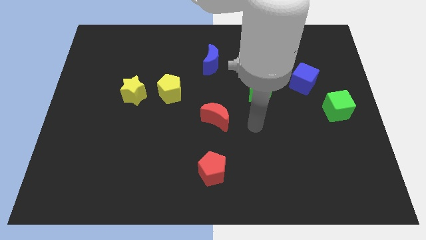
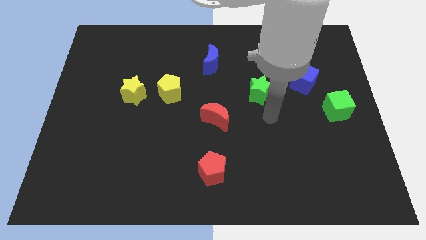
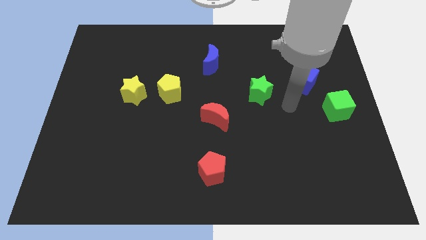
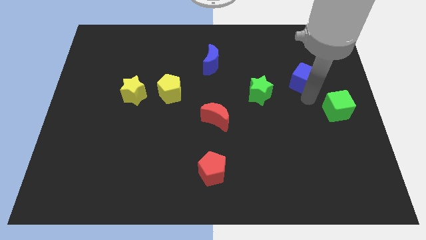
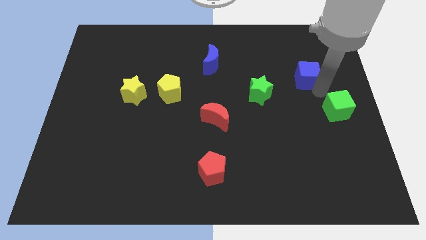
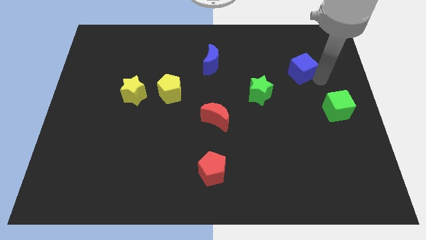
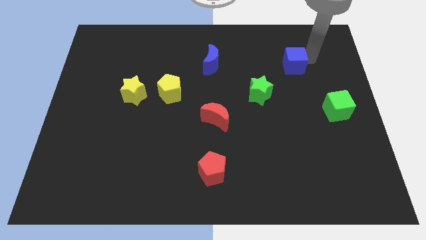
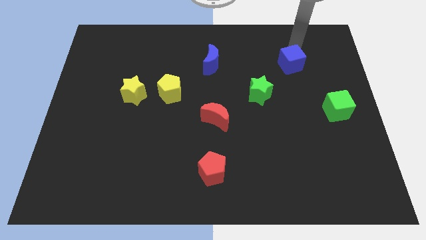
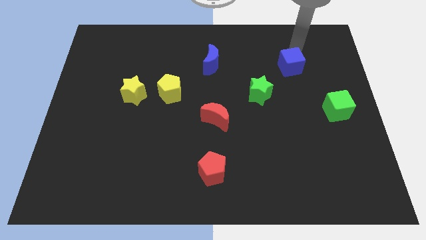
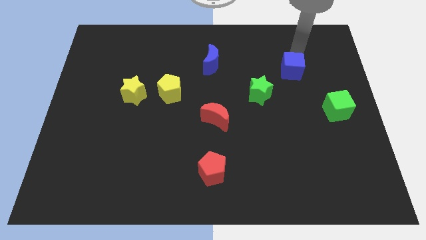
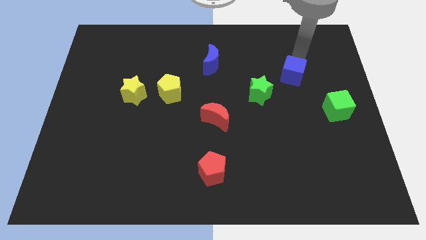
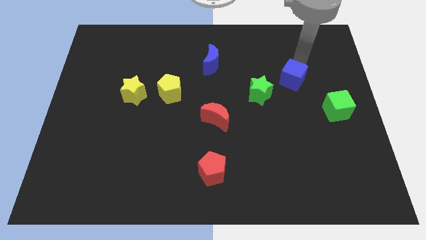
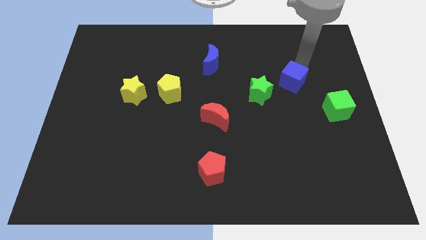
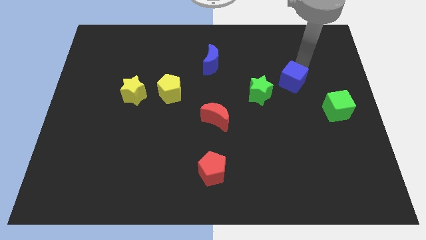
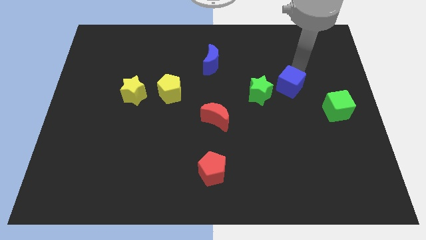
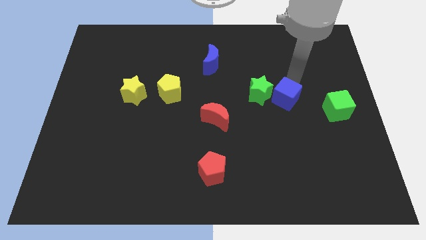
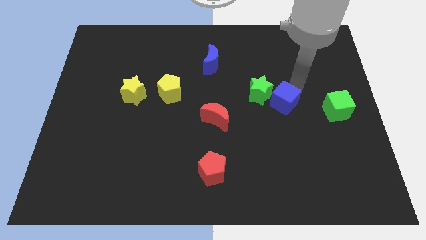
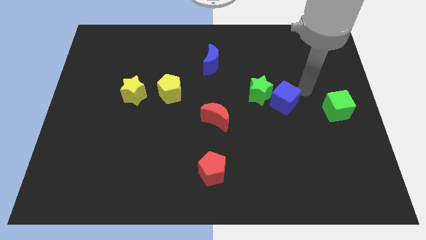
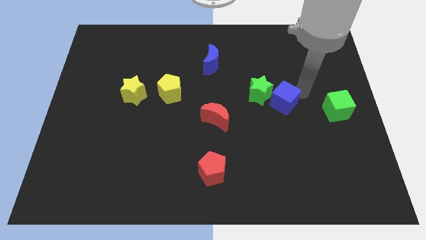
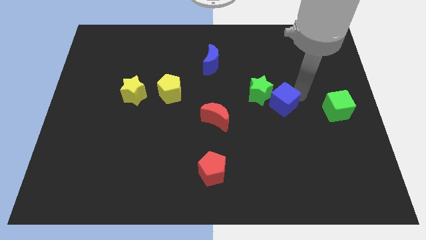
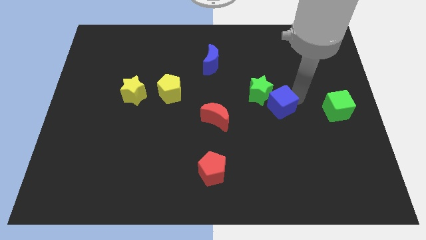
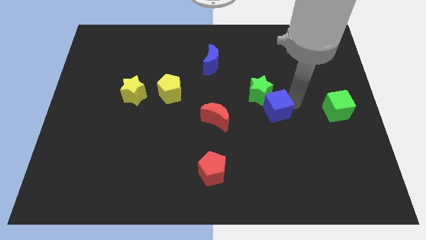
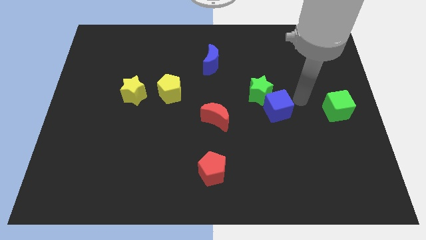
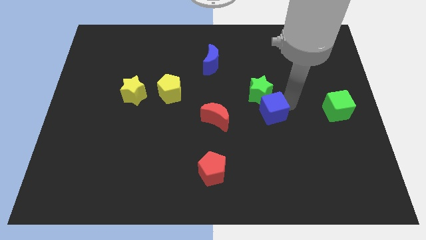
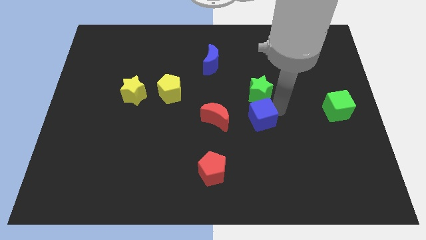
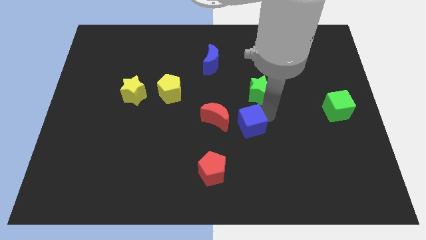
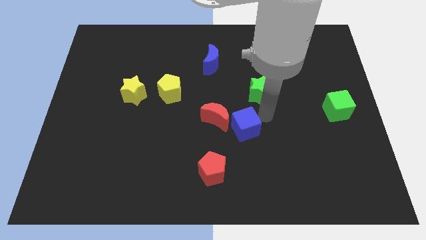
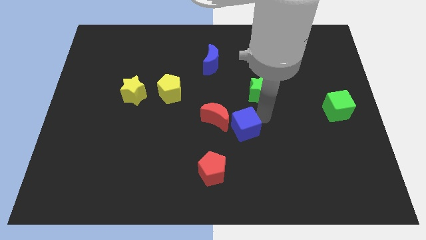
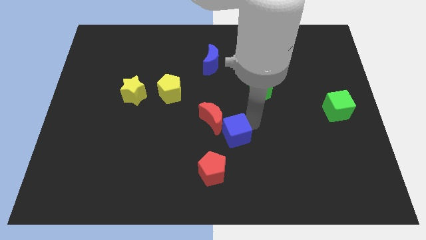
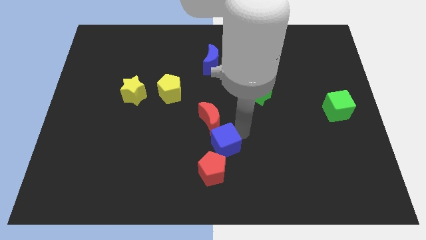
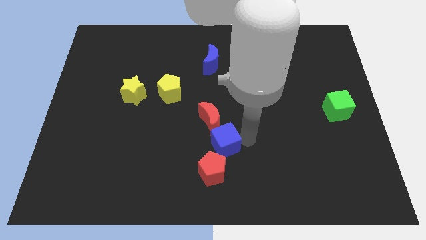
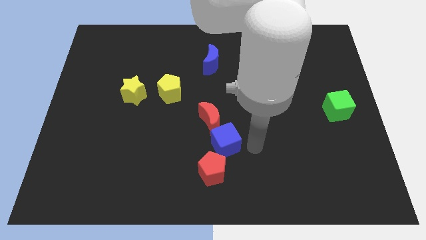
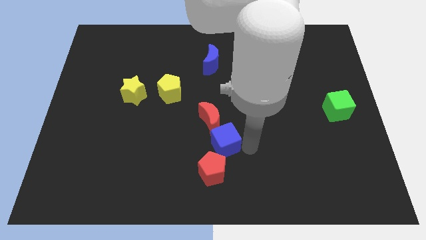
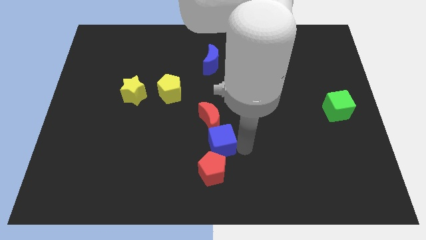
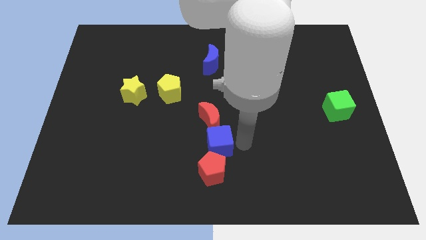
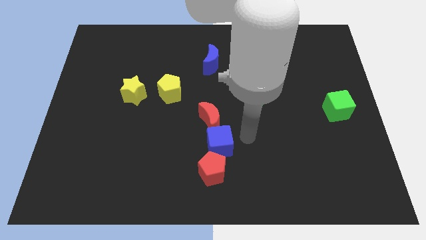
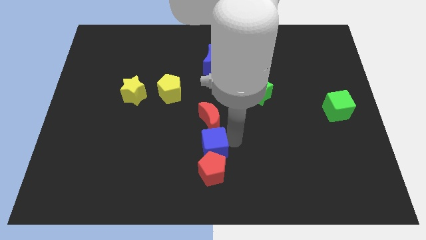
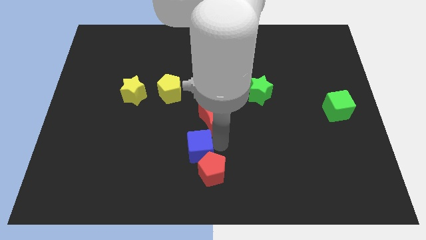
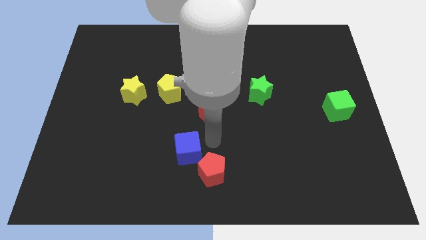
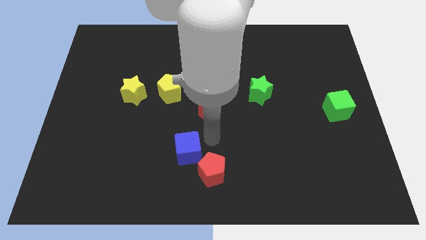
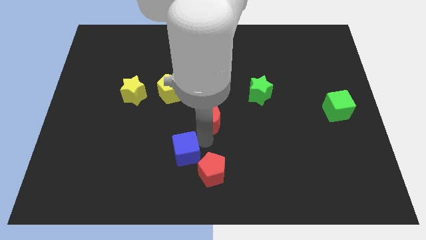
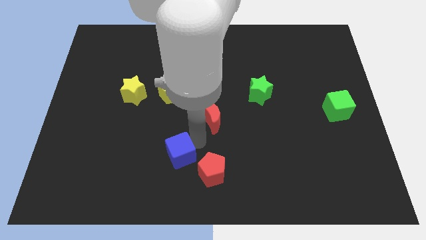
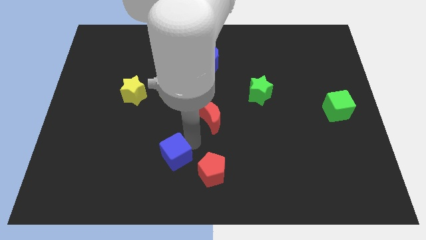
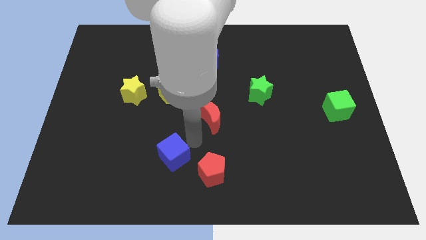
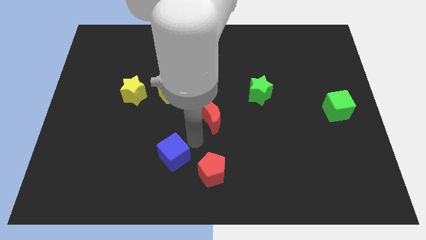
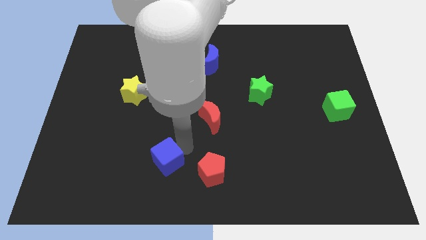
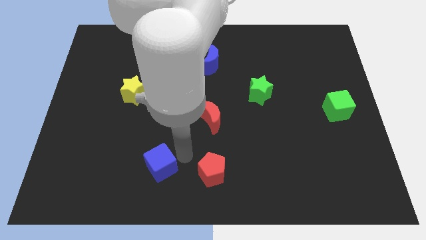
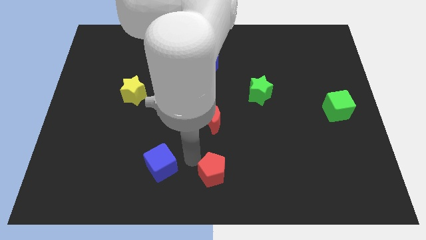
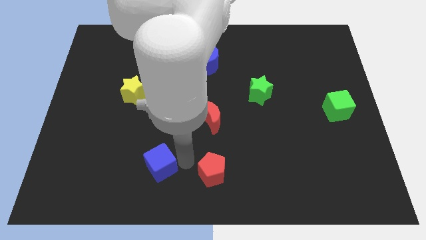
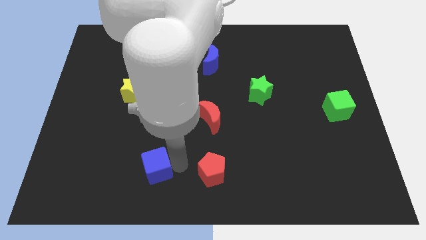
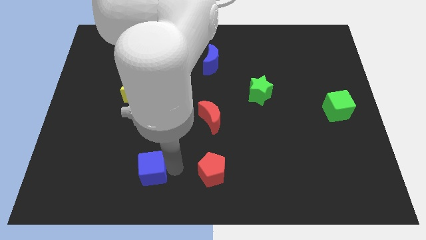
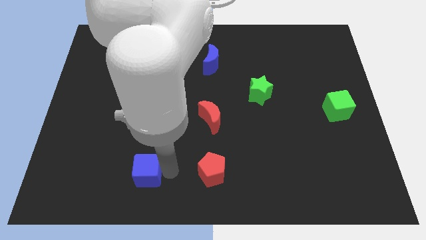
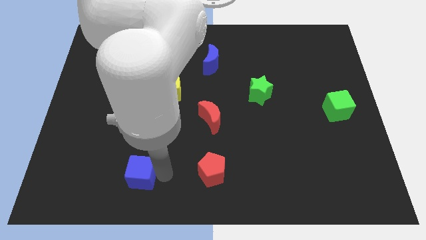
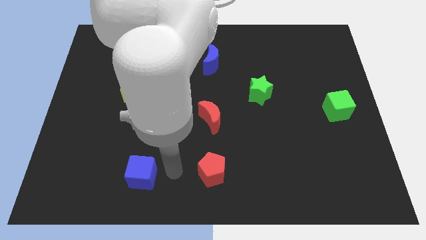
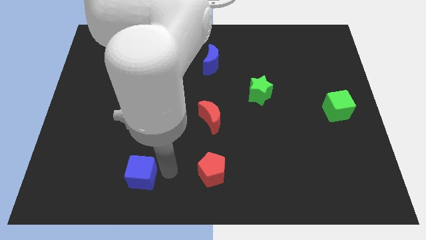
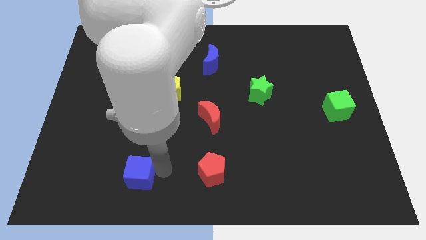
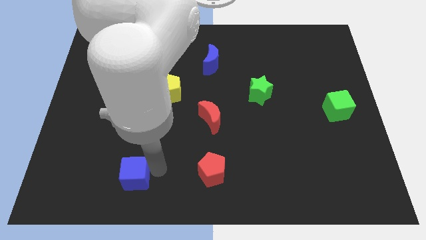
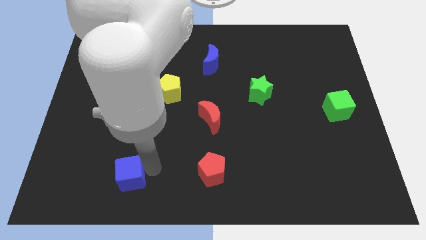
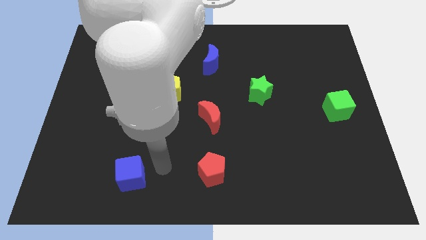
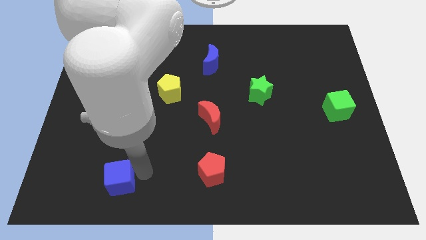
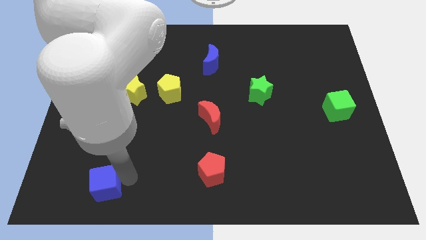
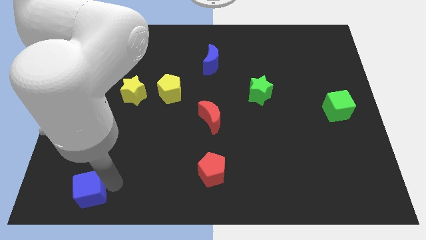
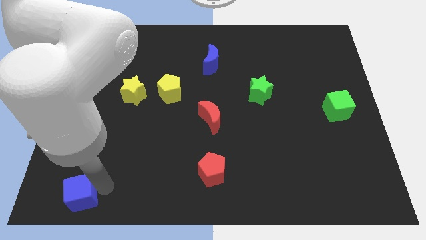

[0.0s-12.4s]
slide the blue cube to the bottom left

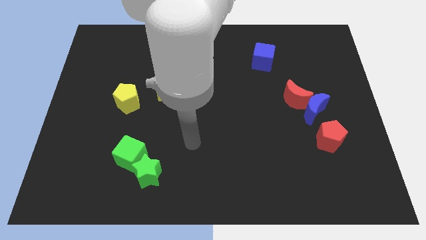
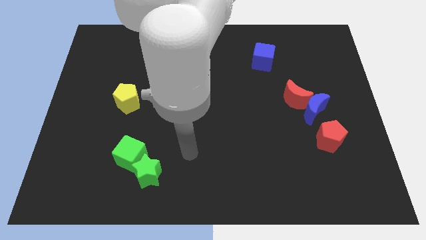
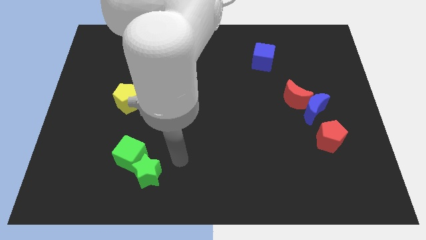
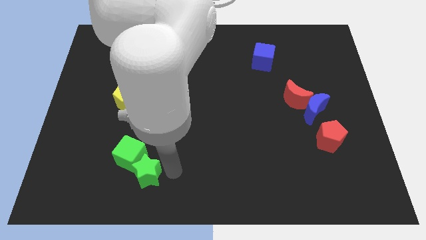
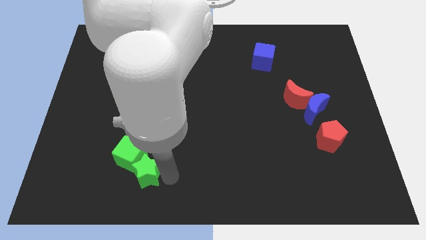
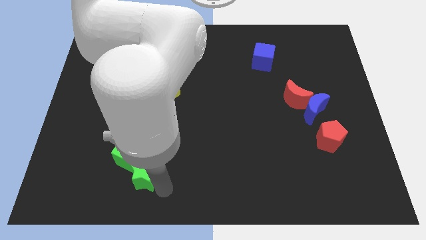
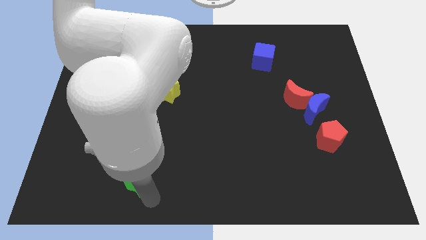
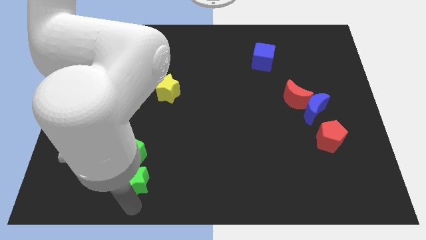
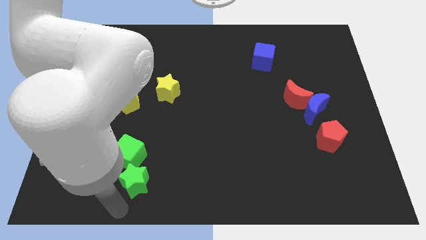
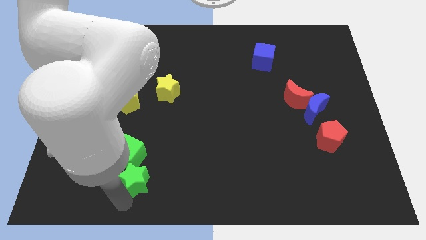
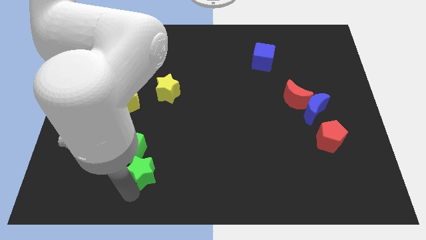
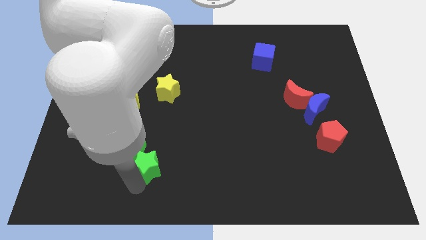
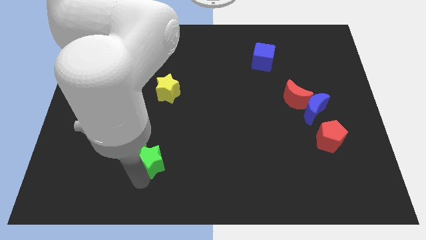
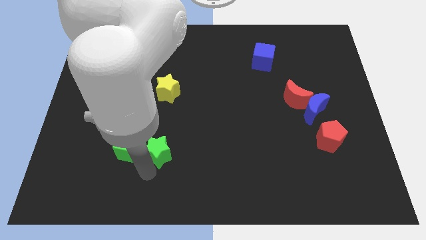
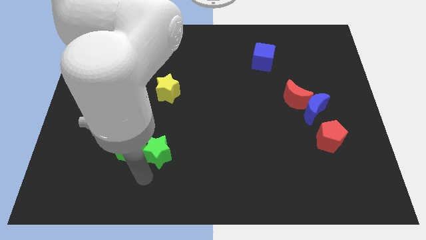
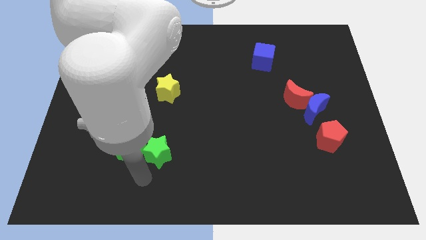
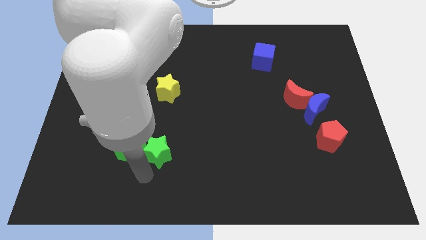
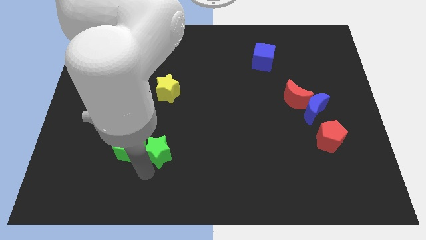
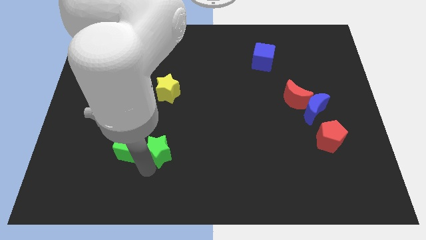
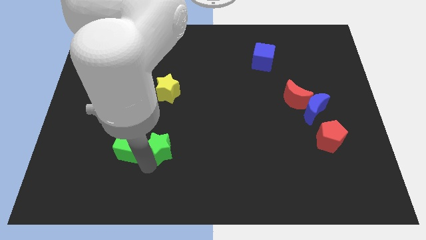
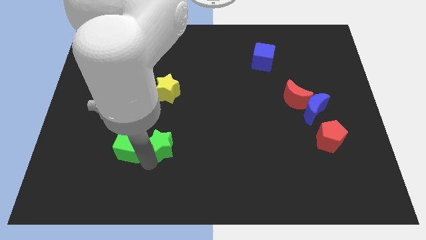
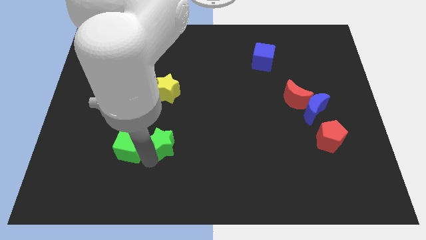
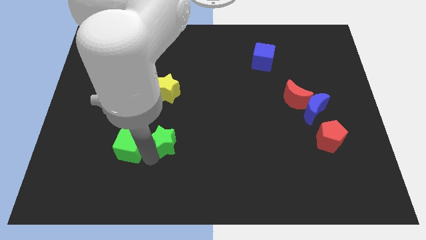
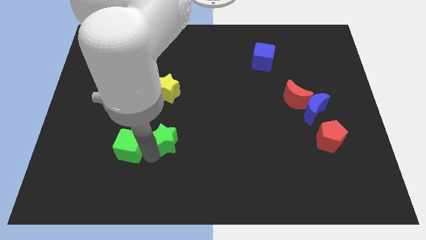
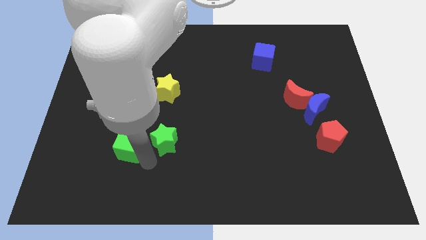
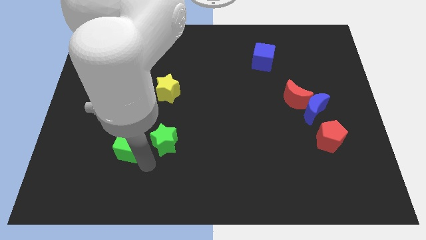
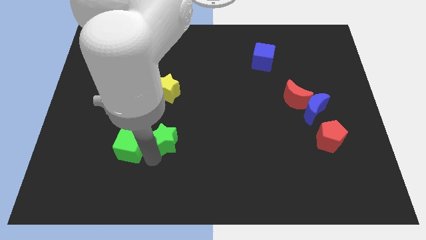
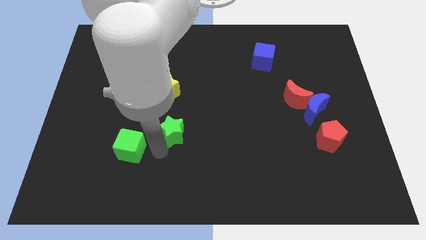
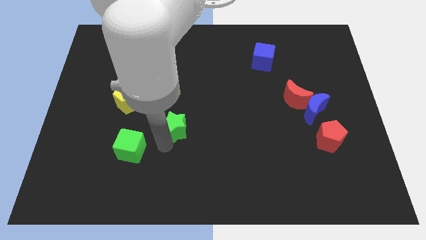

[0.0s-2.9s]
slide the green star to the center
